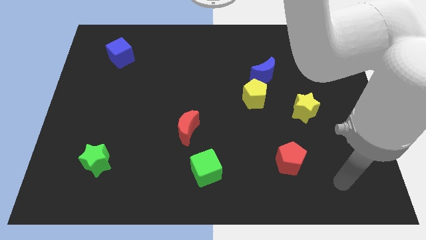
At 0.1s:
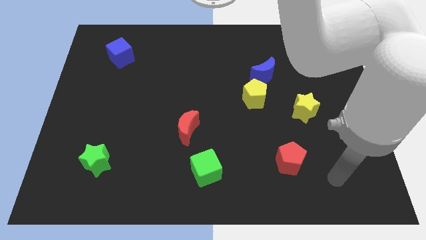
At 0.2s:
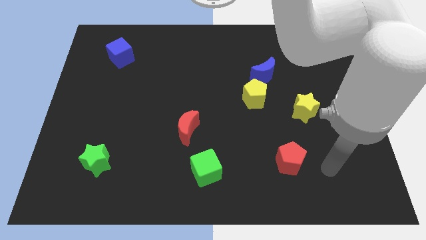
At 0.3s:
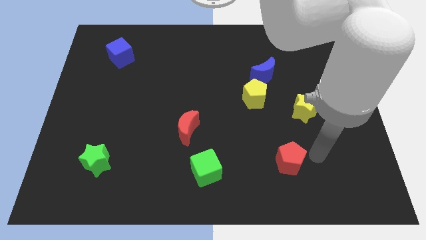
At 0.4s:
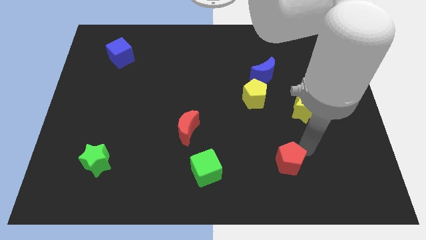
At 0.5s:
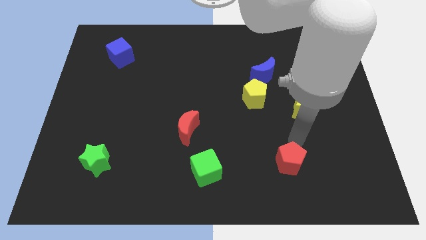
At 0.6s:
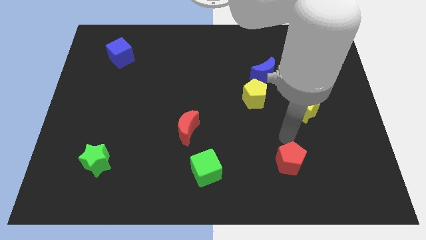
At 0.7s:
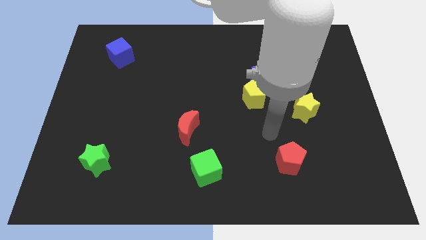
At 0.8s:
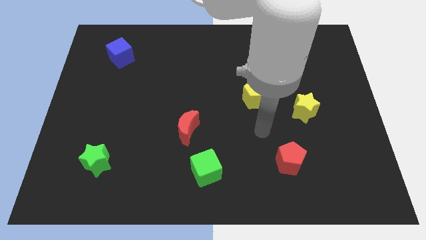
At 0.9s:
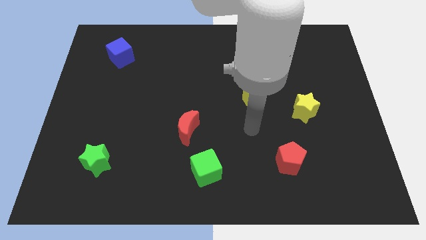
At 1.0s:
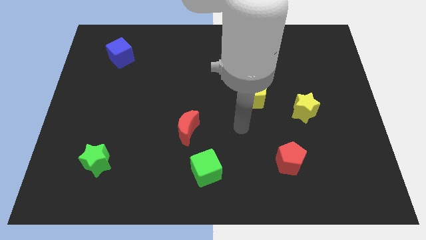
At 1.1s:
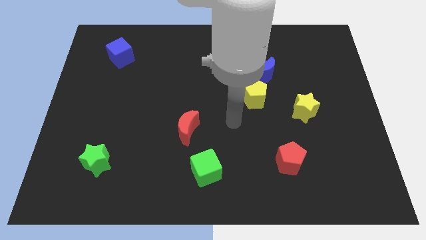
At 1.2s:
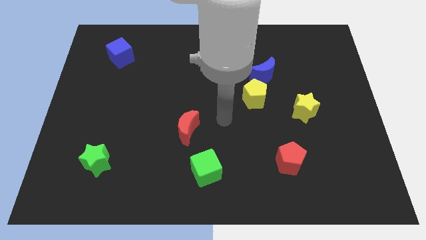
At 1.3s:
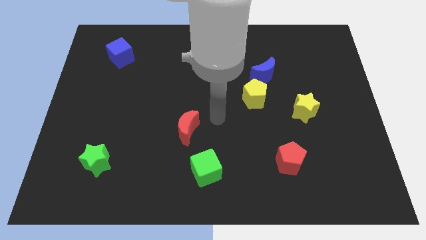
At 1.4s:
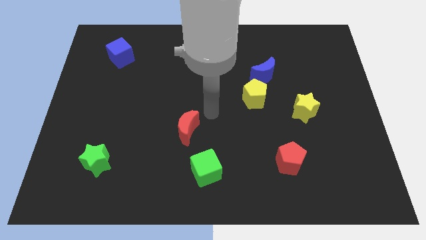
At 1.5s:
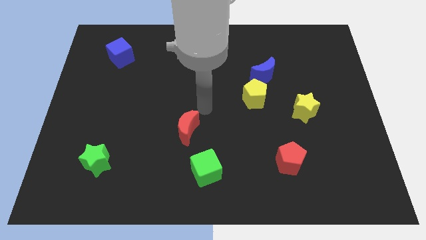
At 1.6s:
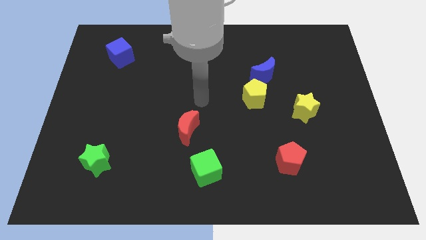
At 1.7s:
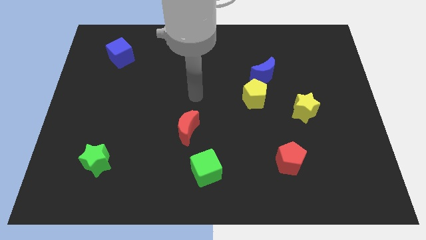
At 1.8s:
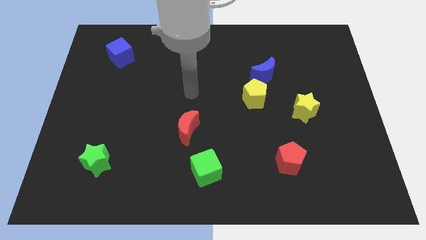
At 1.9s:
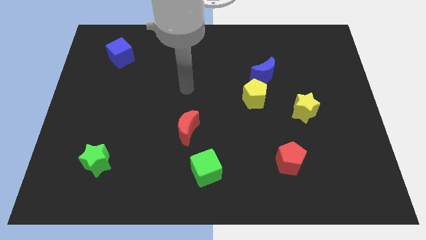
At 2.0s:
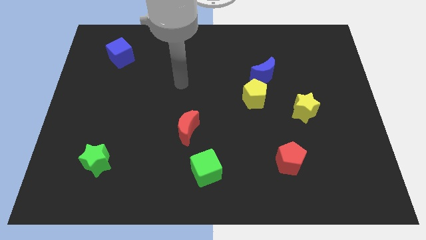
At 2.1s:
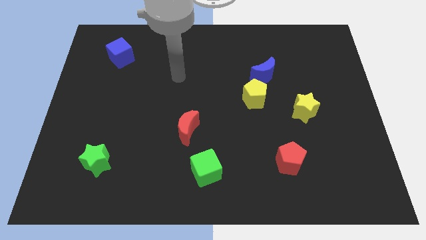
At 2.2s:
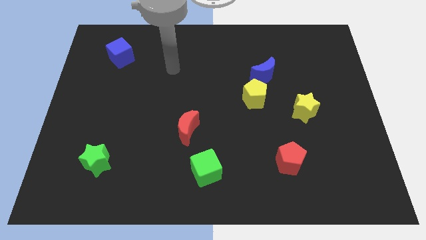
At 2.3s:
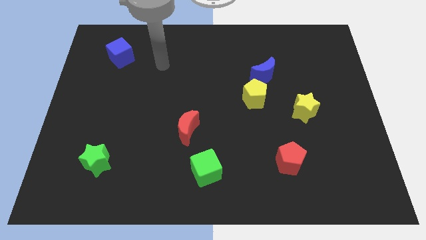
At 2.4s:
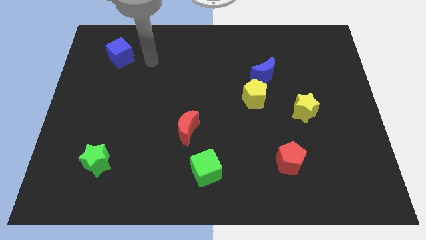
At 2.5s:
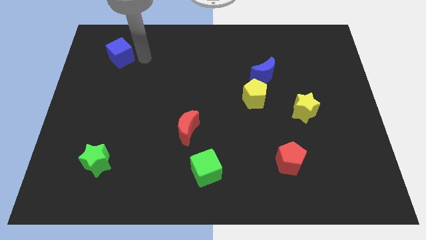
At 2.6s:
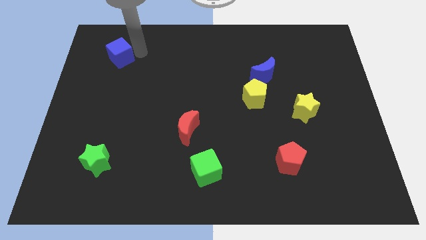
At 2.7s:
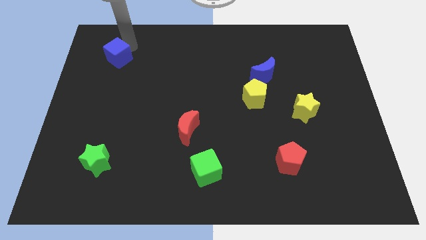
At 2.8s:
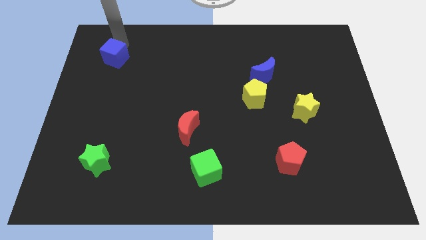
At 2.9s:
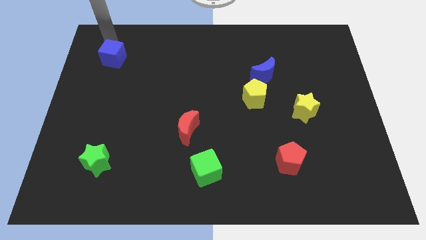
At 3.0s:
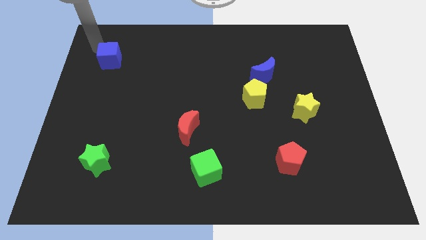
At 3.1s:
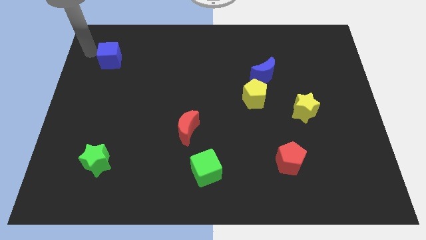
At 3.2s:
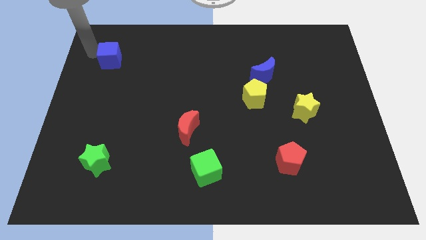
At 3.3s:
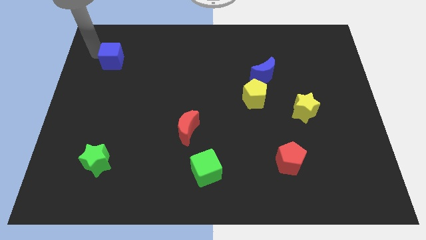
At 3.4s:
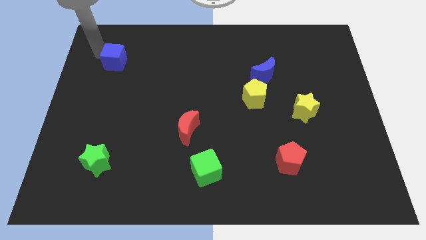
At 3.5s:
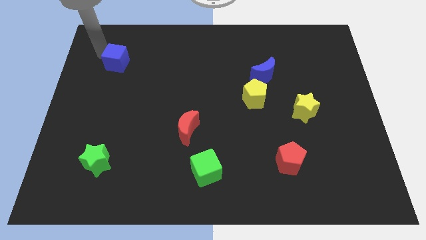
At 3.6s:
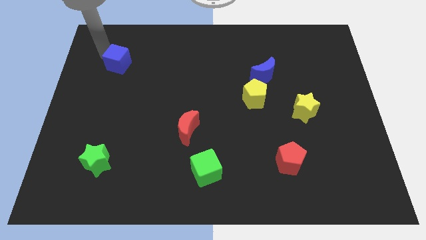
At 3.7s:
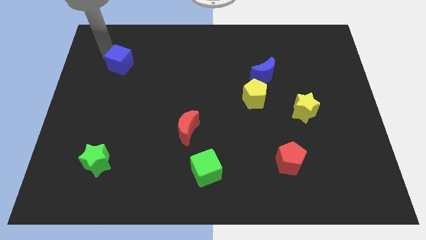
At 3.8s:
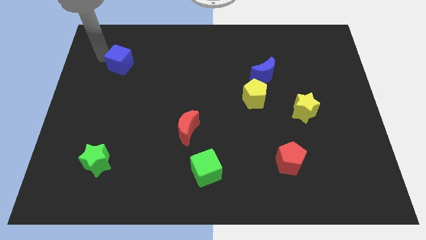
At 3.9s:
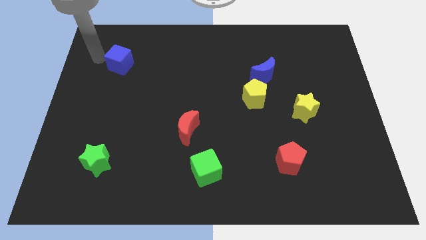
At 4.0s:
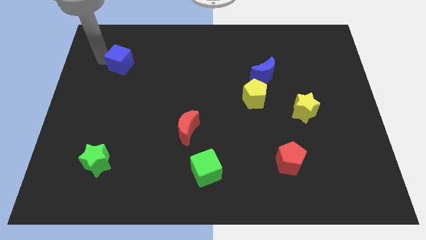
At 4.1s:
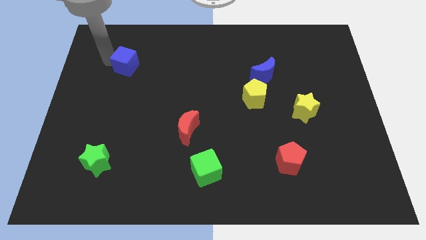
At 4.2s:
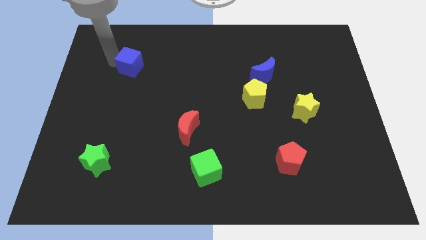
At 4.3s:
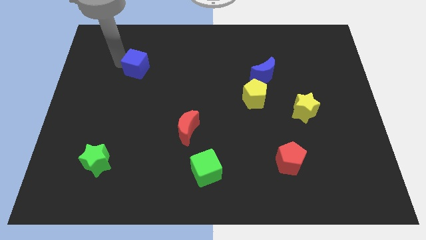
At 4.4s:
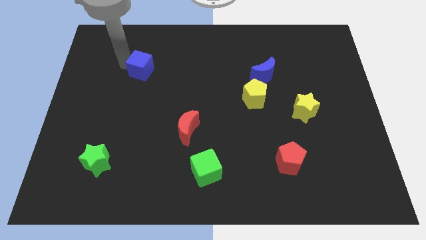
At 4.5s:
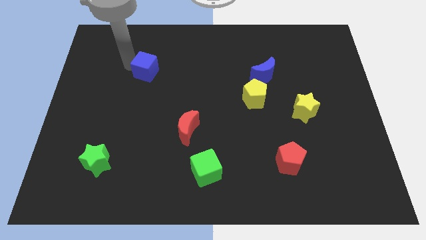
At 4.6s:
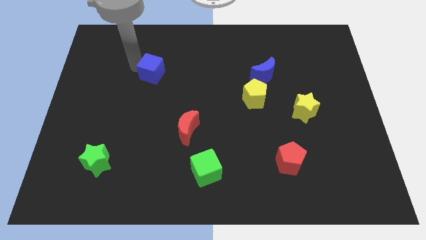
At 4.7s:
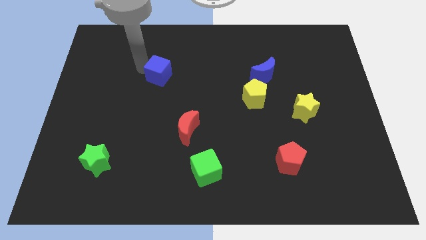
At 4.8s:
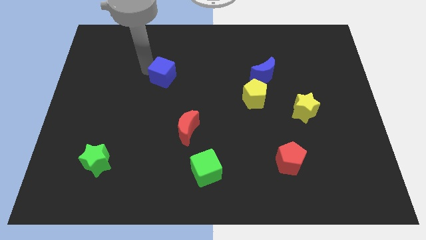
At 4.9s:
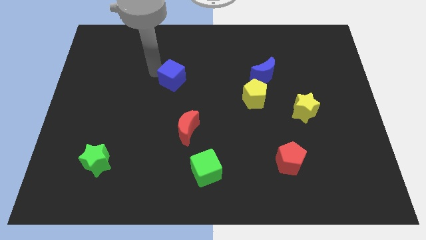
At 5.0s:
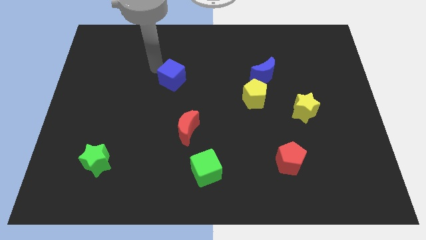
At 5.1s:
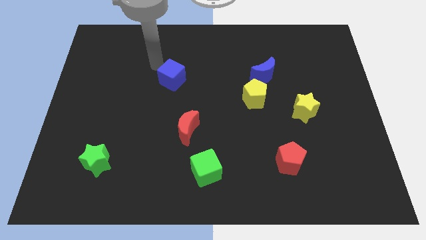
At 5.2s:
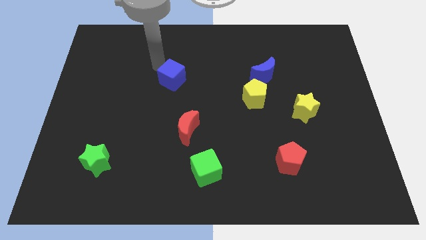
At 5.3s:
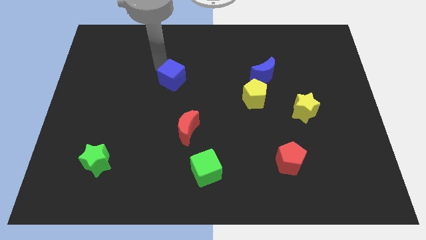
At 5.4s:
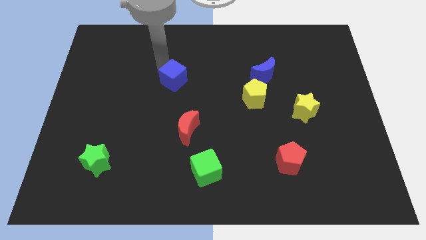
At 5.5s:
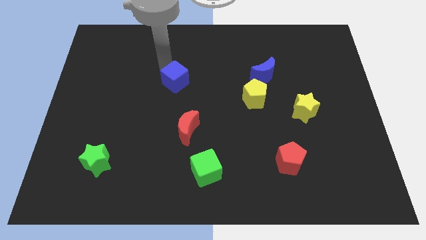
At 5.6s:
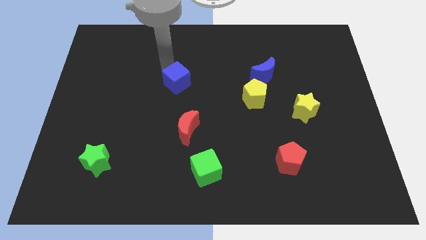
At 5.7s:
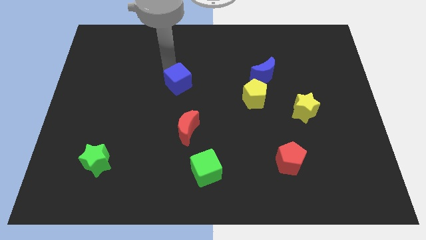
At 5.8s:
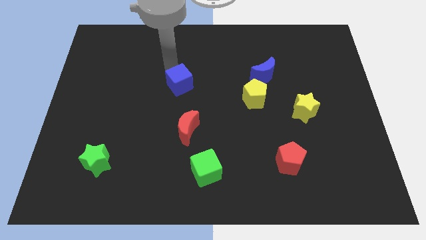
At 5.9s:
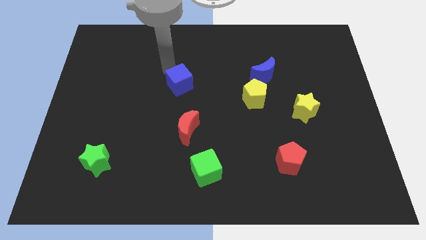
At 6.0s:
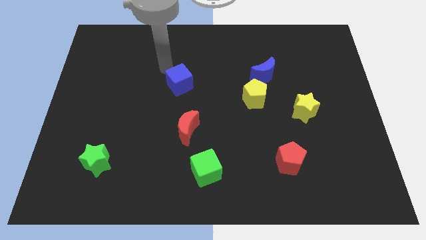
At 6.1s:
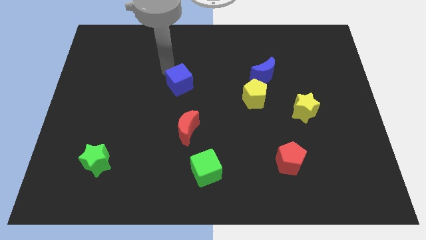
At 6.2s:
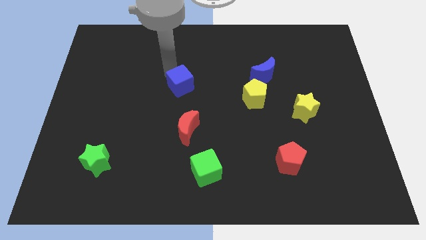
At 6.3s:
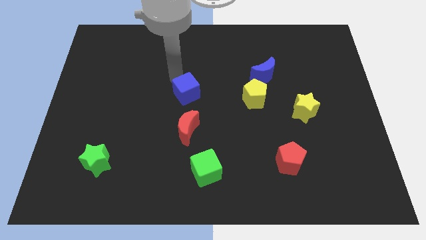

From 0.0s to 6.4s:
push the blue cube diagonally down and right

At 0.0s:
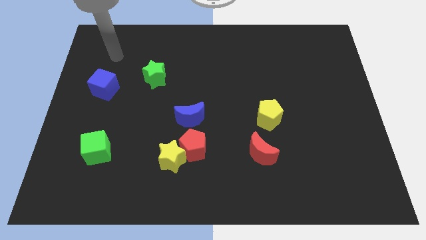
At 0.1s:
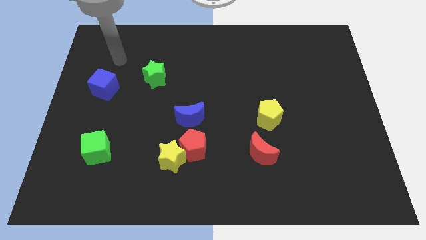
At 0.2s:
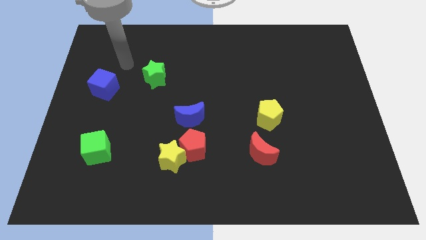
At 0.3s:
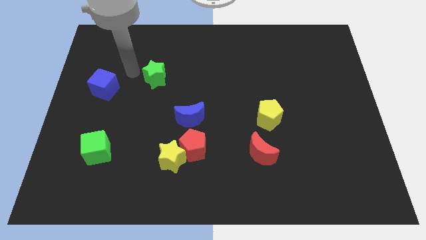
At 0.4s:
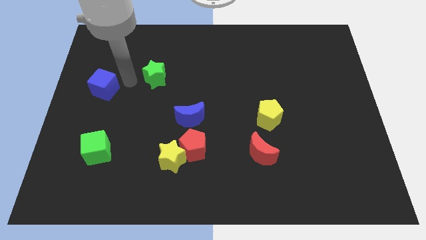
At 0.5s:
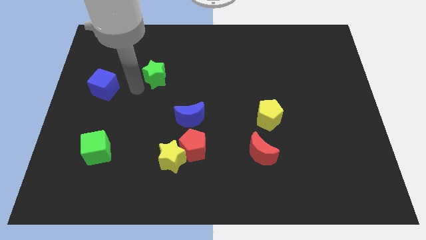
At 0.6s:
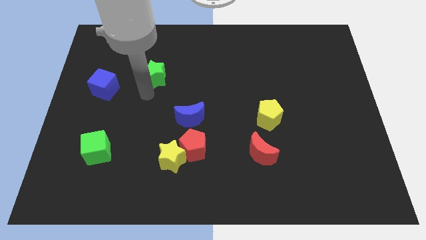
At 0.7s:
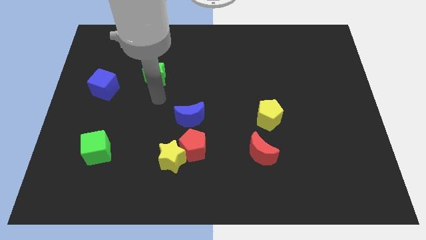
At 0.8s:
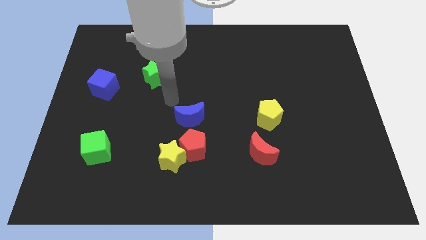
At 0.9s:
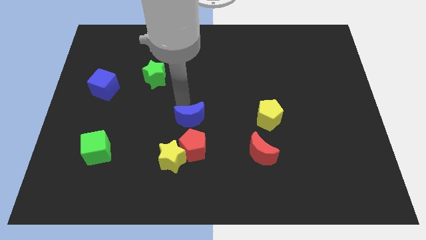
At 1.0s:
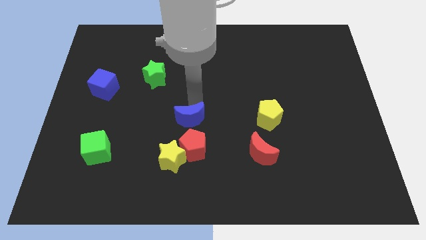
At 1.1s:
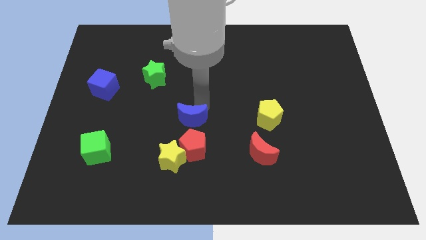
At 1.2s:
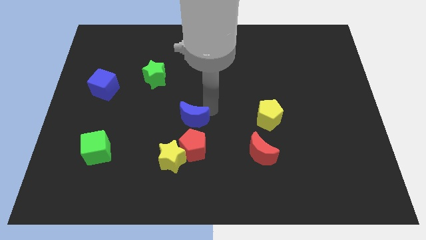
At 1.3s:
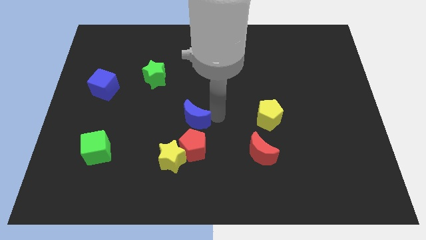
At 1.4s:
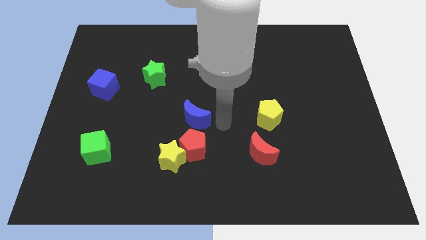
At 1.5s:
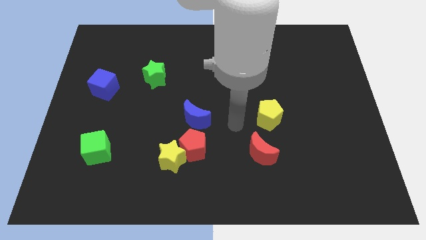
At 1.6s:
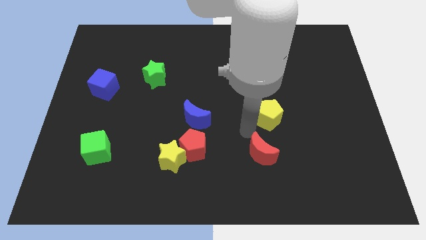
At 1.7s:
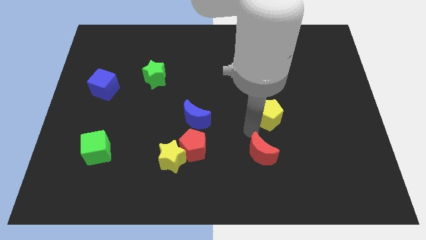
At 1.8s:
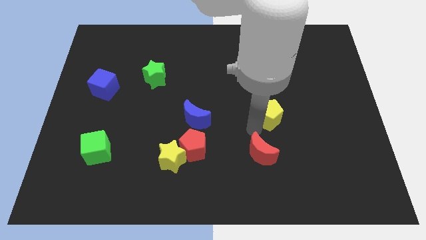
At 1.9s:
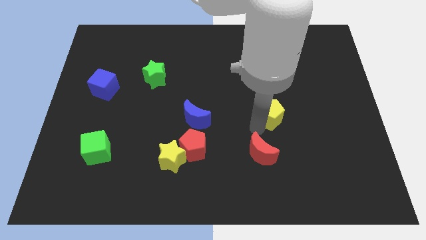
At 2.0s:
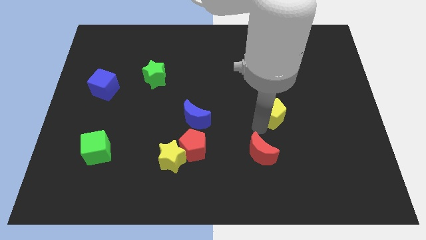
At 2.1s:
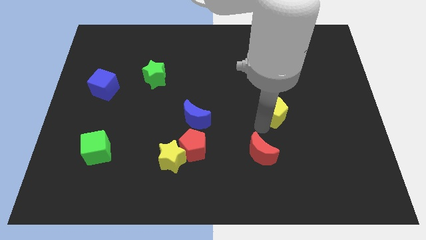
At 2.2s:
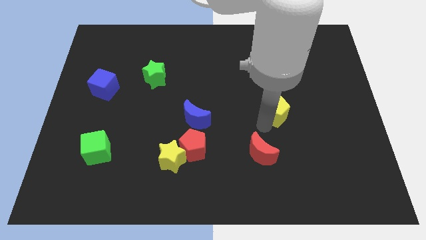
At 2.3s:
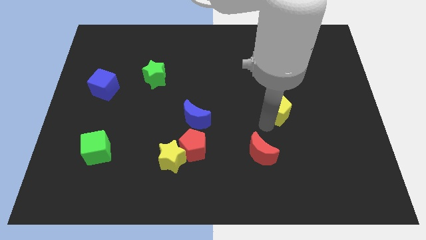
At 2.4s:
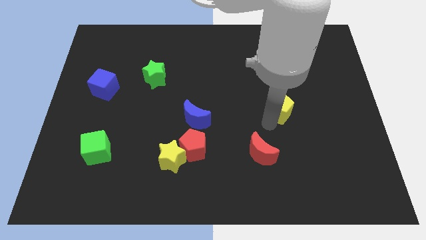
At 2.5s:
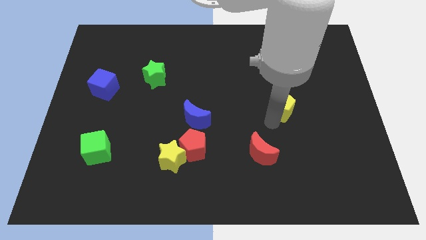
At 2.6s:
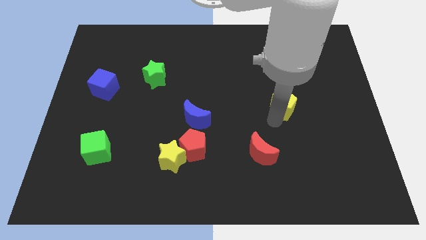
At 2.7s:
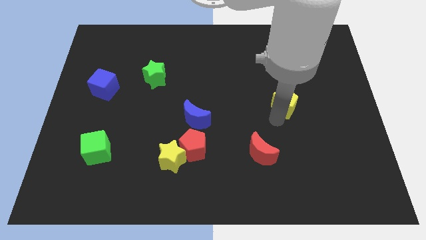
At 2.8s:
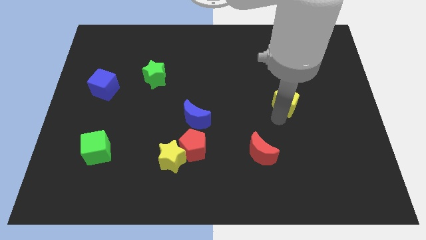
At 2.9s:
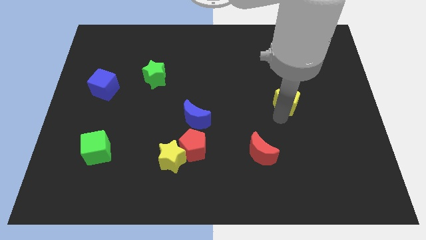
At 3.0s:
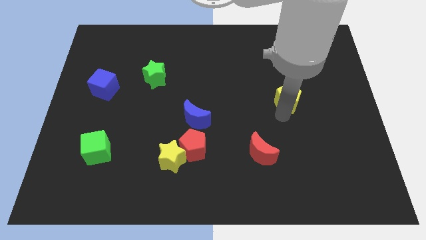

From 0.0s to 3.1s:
move the yellow pentagon upwards and to the right somewhat
